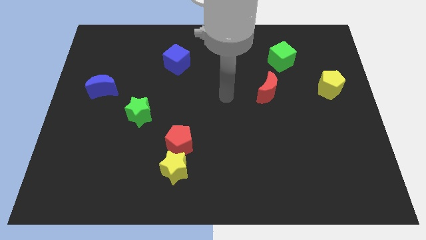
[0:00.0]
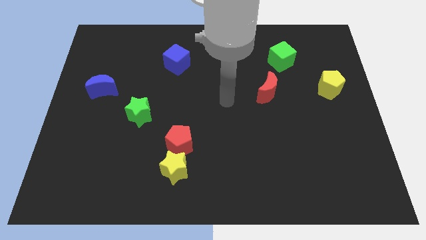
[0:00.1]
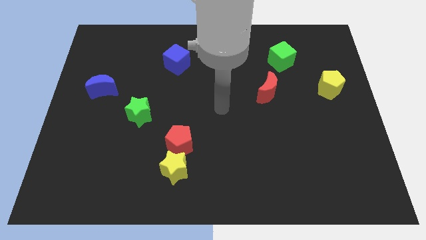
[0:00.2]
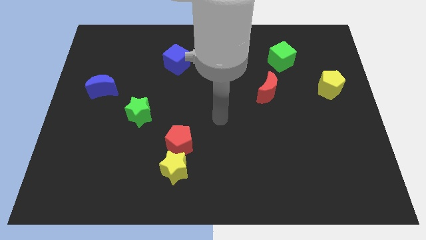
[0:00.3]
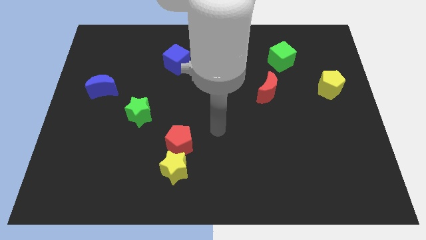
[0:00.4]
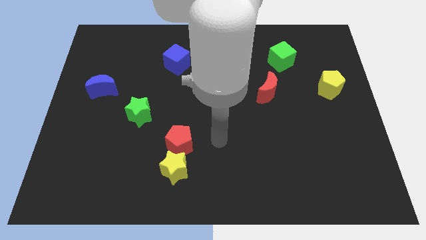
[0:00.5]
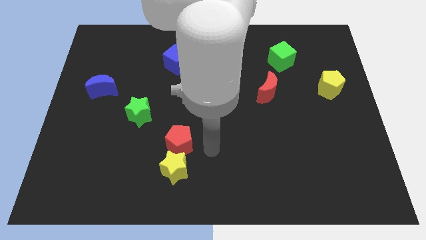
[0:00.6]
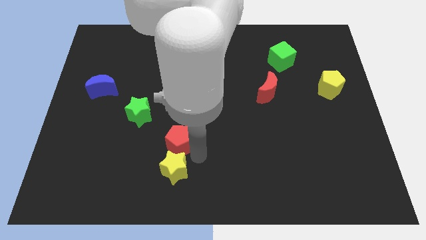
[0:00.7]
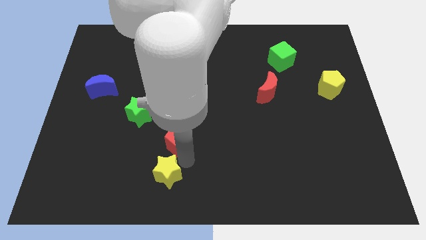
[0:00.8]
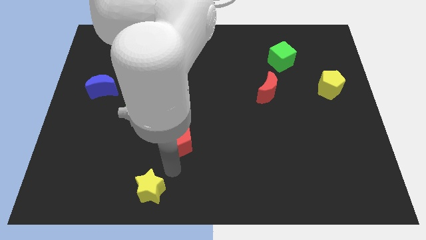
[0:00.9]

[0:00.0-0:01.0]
move the red pentagon away from the yellow star

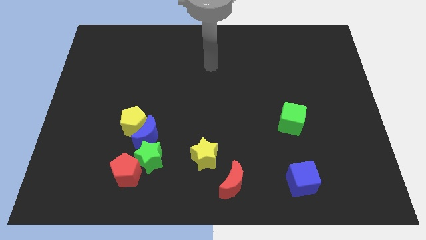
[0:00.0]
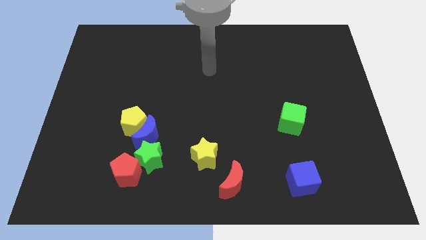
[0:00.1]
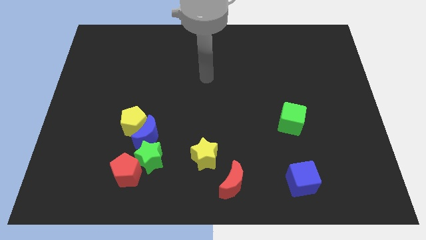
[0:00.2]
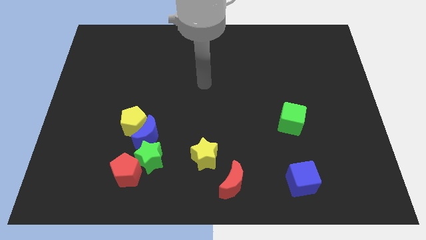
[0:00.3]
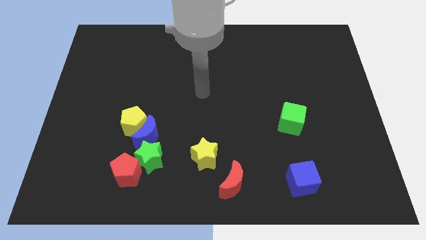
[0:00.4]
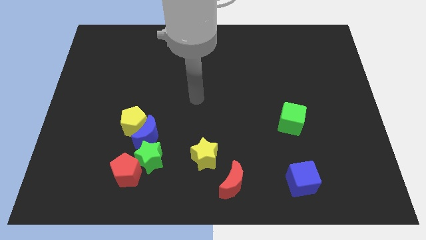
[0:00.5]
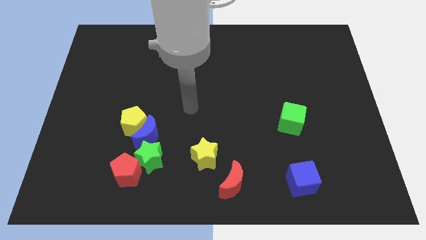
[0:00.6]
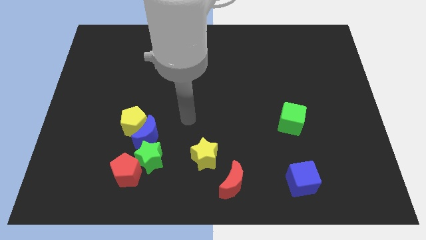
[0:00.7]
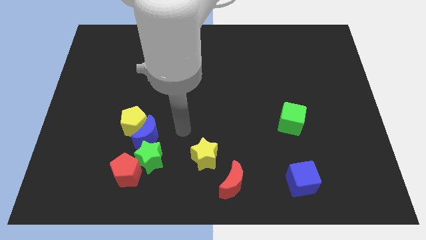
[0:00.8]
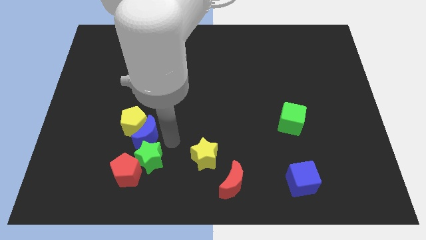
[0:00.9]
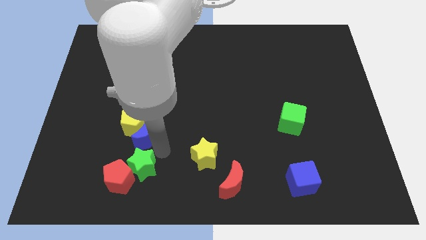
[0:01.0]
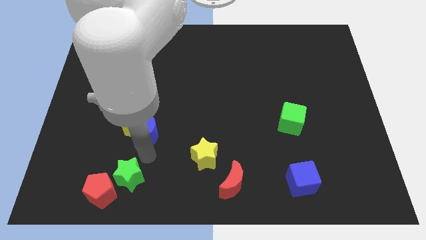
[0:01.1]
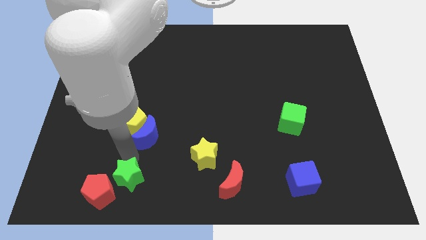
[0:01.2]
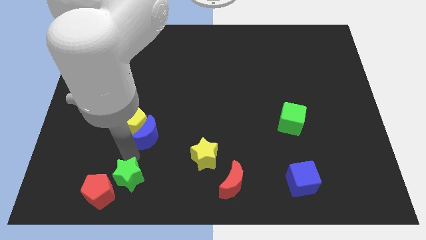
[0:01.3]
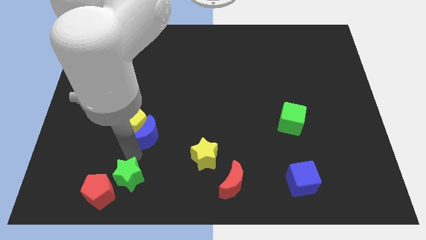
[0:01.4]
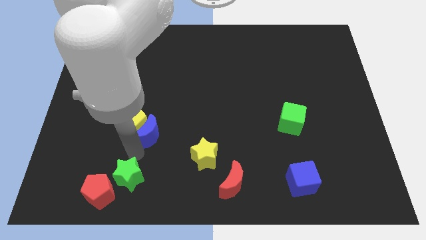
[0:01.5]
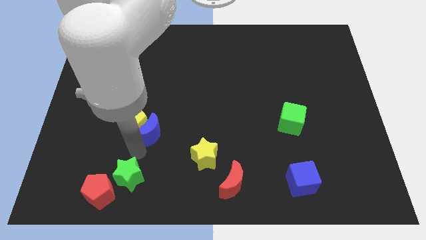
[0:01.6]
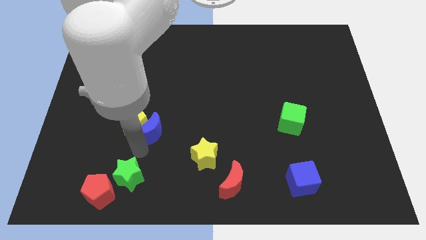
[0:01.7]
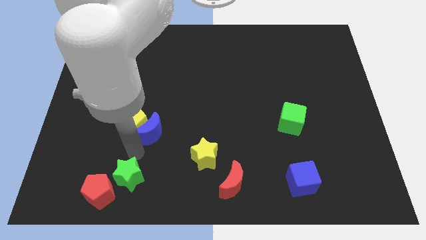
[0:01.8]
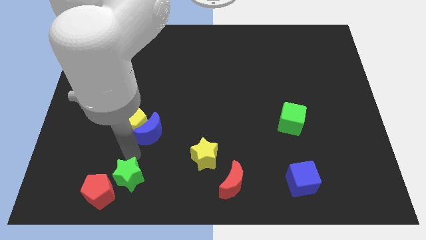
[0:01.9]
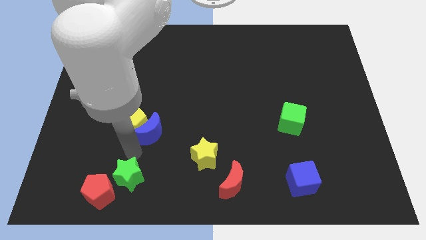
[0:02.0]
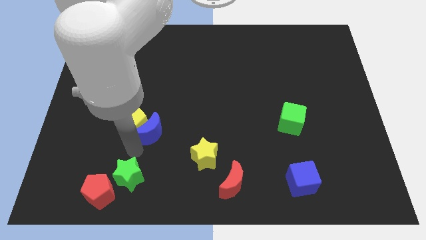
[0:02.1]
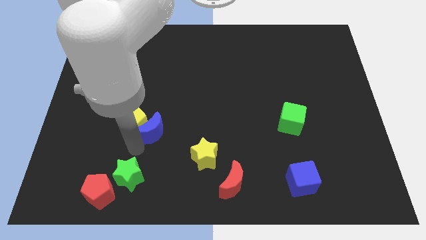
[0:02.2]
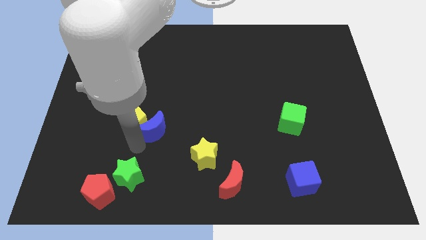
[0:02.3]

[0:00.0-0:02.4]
move the blue moon away from the yellow pentagon, green star, and red pentagon

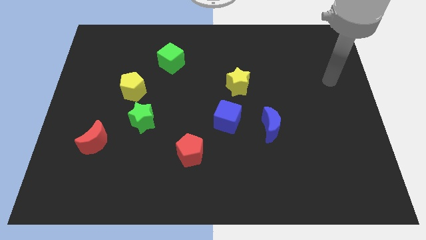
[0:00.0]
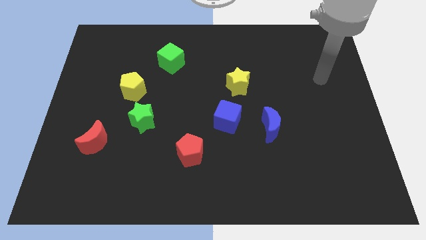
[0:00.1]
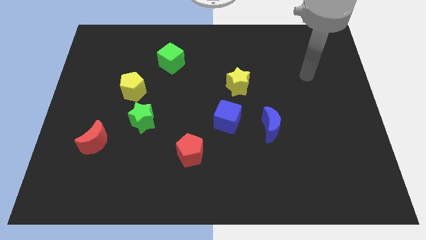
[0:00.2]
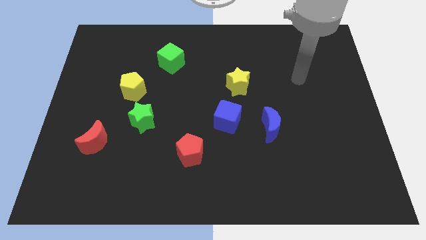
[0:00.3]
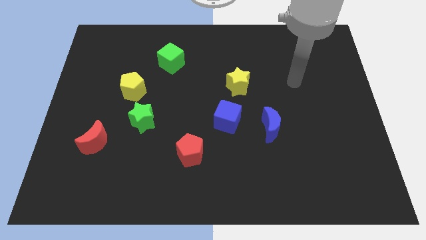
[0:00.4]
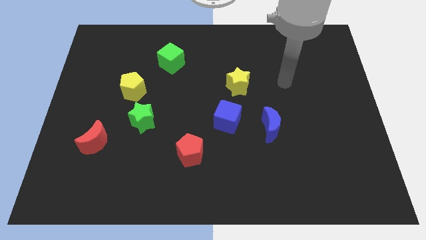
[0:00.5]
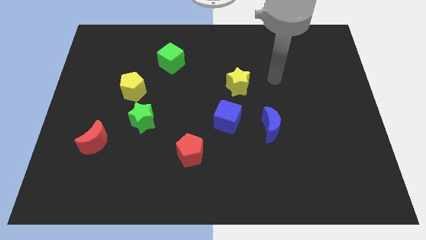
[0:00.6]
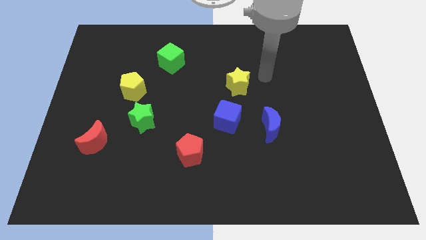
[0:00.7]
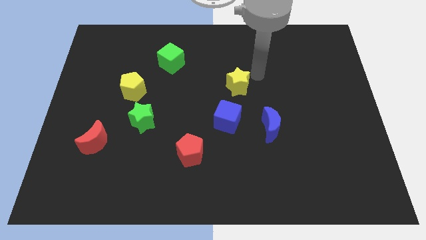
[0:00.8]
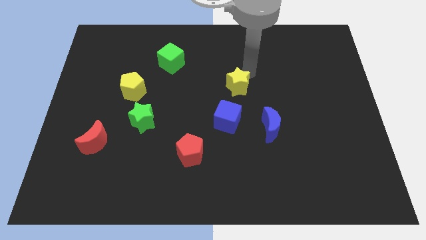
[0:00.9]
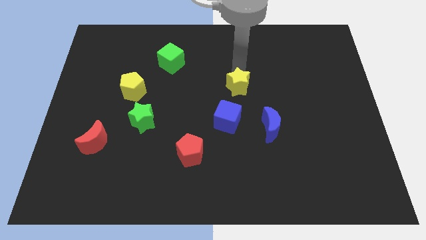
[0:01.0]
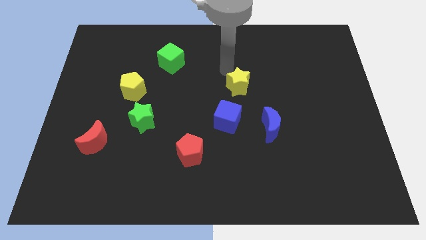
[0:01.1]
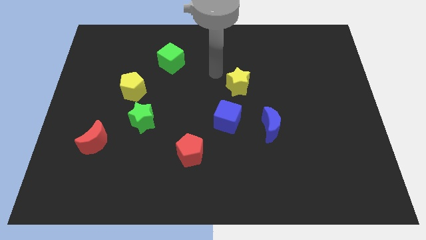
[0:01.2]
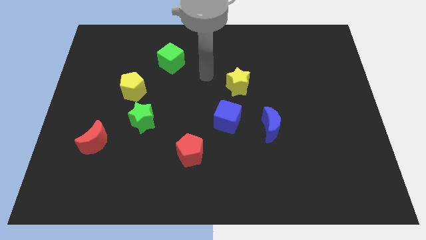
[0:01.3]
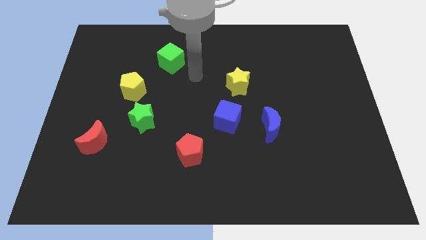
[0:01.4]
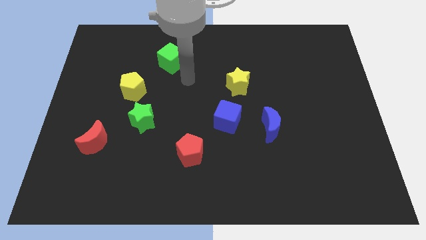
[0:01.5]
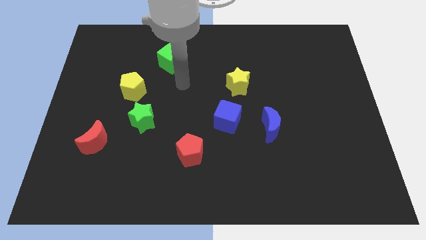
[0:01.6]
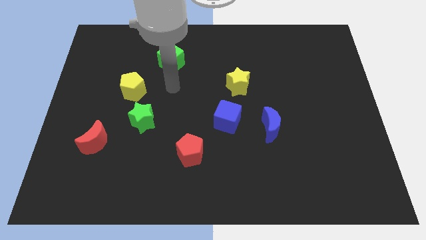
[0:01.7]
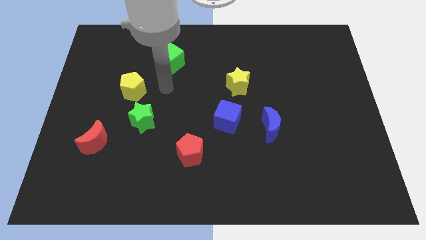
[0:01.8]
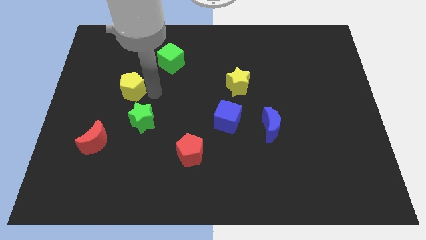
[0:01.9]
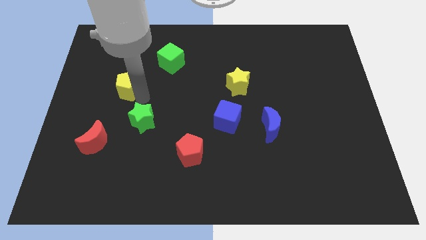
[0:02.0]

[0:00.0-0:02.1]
move the green star away from the yellow pentagon

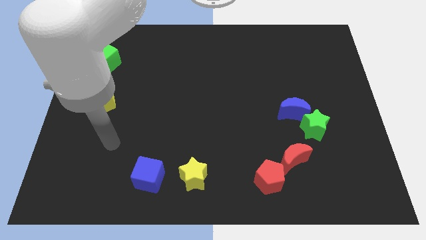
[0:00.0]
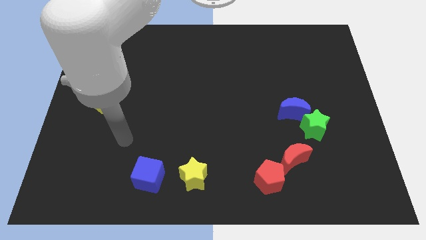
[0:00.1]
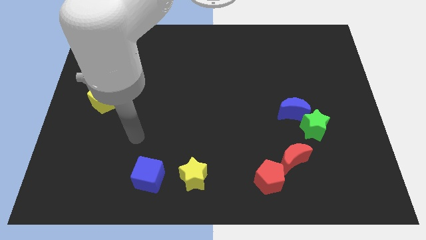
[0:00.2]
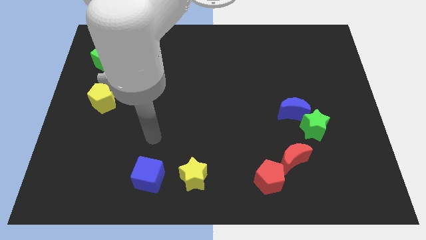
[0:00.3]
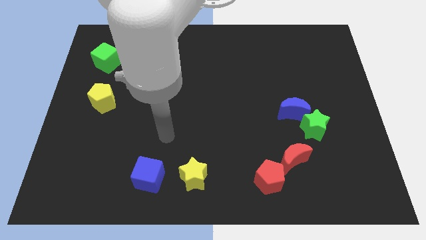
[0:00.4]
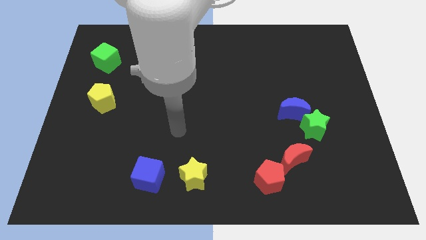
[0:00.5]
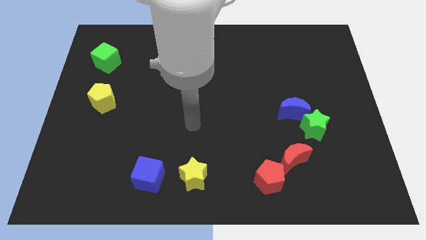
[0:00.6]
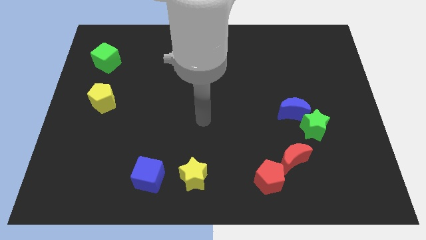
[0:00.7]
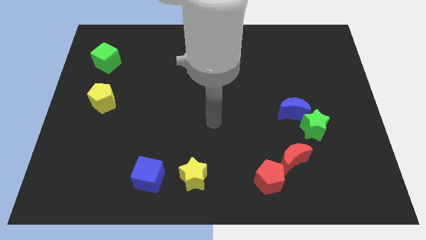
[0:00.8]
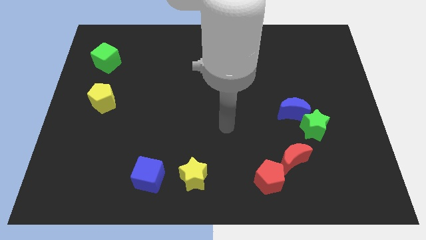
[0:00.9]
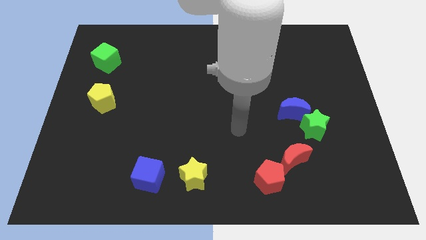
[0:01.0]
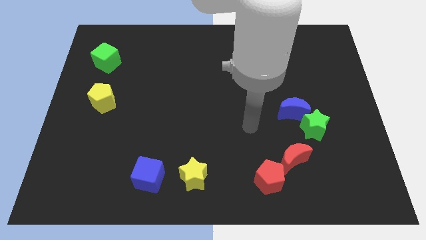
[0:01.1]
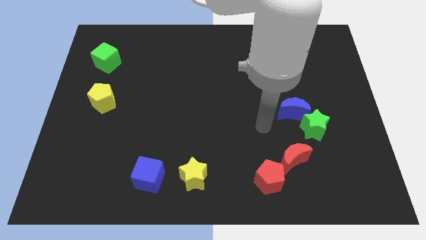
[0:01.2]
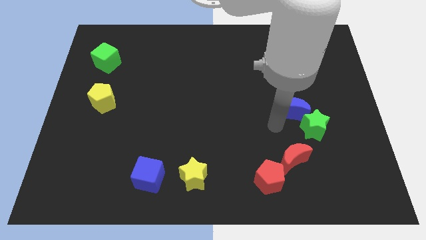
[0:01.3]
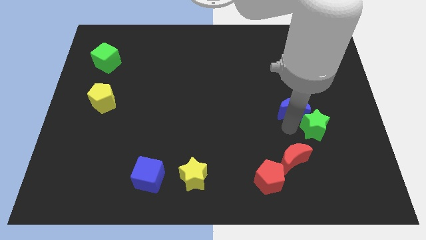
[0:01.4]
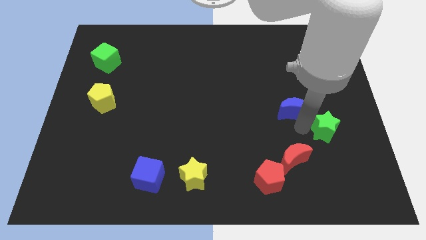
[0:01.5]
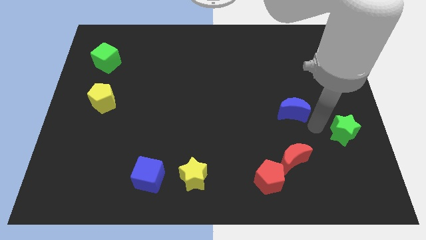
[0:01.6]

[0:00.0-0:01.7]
pull the blue moon apart from the green star

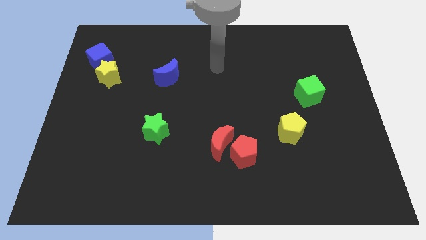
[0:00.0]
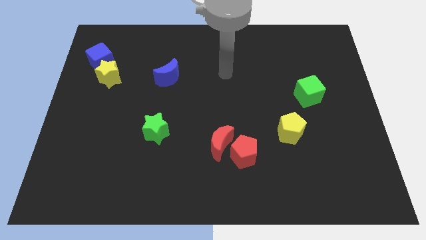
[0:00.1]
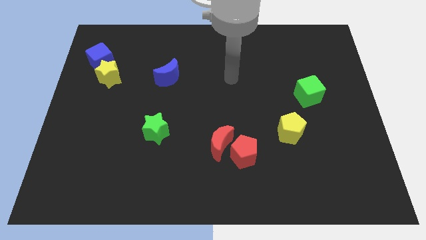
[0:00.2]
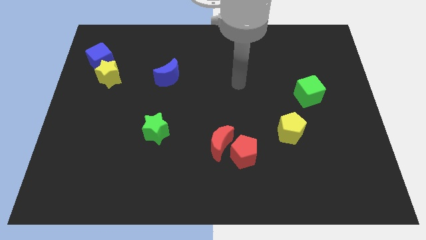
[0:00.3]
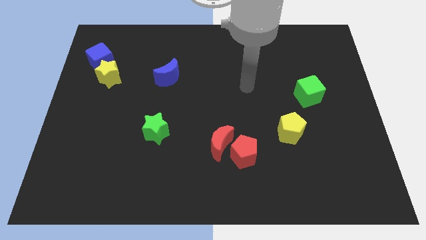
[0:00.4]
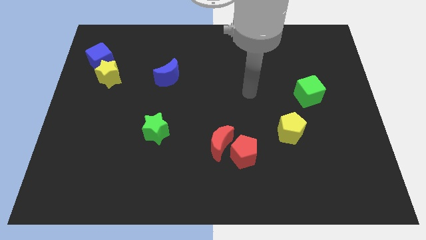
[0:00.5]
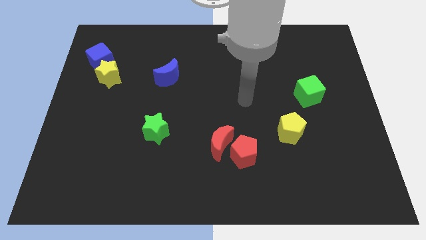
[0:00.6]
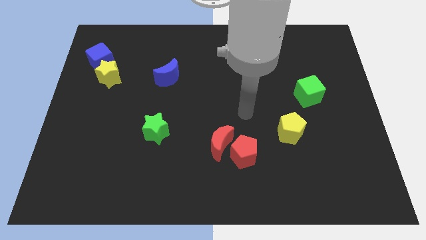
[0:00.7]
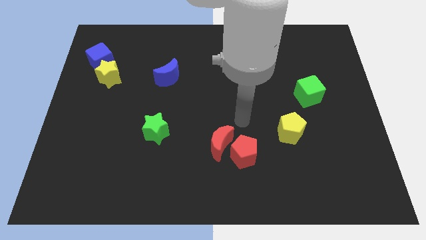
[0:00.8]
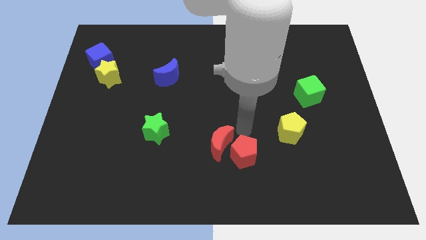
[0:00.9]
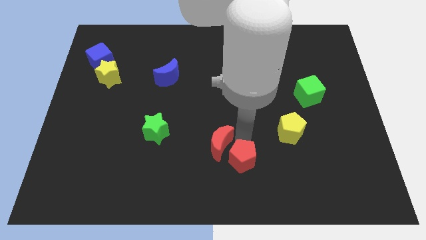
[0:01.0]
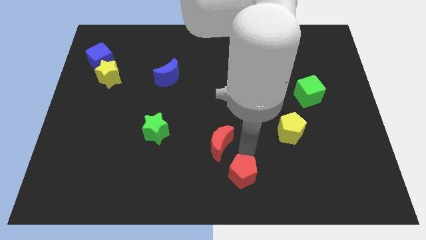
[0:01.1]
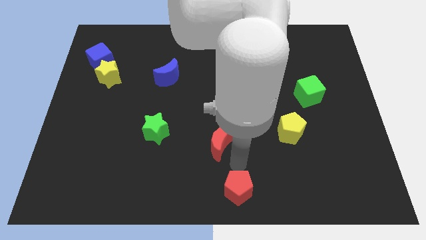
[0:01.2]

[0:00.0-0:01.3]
pull the red moon apart from the red pentagon

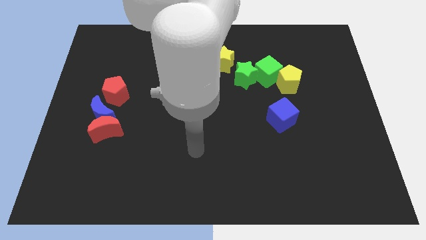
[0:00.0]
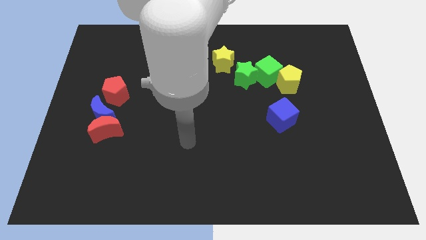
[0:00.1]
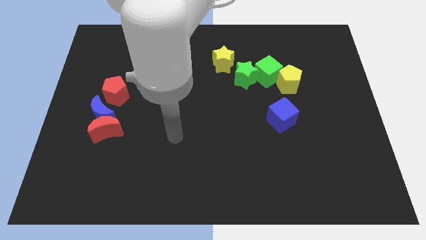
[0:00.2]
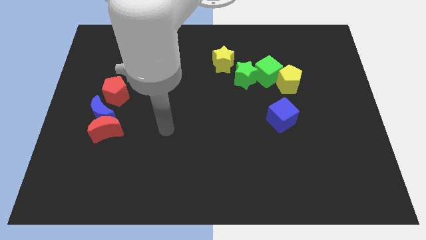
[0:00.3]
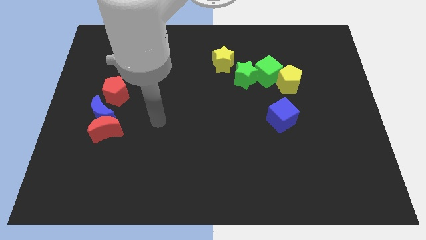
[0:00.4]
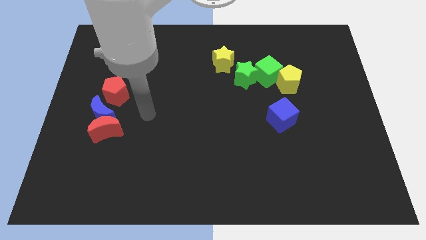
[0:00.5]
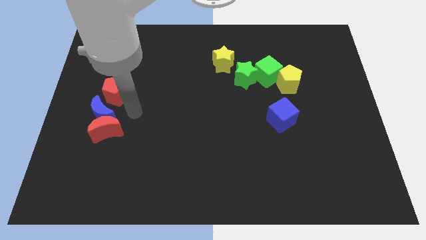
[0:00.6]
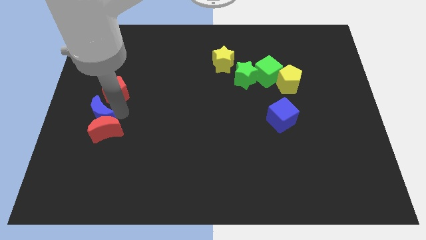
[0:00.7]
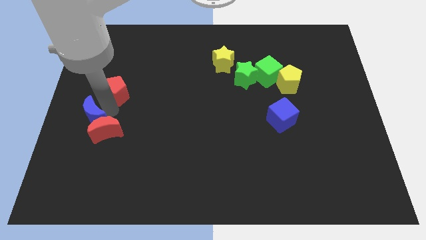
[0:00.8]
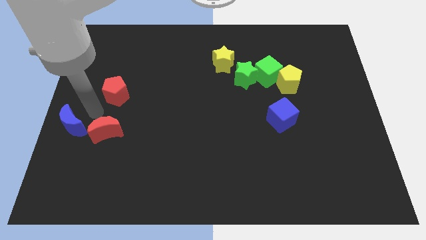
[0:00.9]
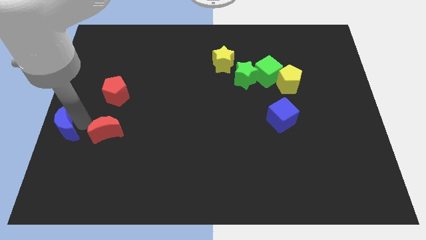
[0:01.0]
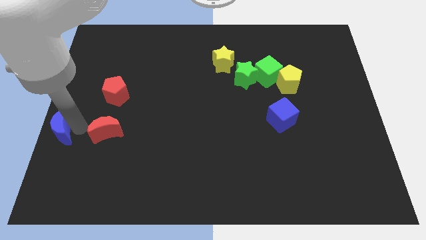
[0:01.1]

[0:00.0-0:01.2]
separate the red moon from the blue moon
